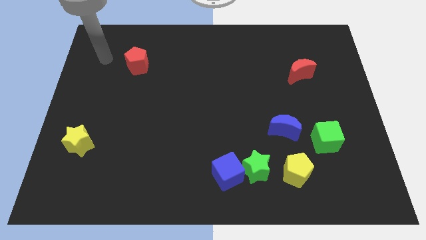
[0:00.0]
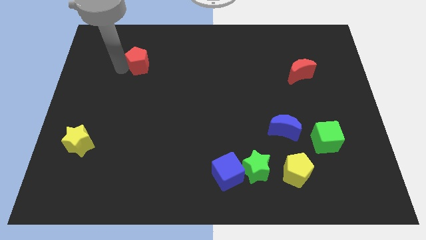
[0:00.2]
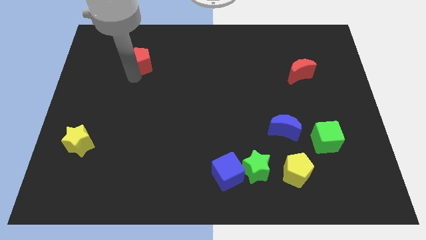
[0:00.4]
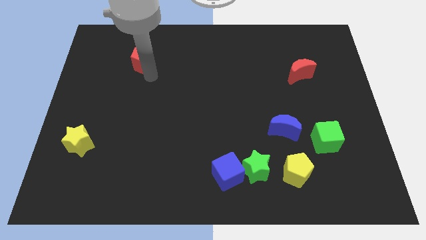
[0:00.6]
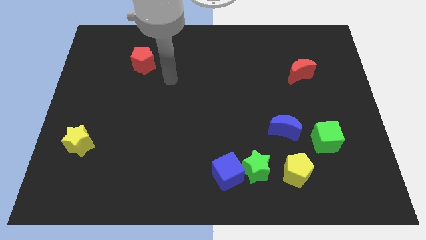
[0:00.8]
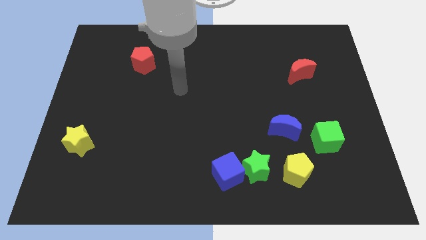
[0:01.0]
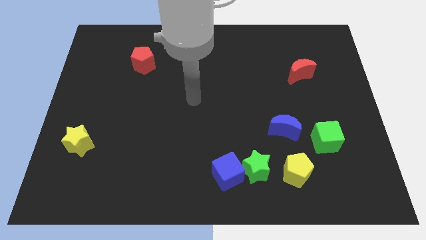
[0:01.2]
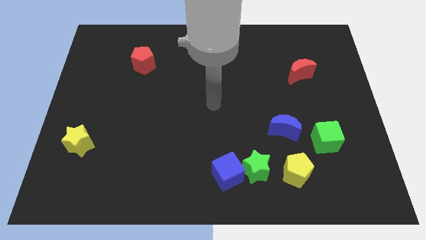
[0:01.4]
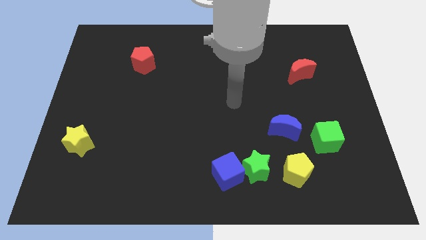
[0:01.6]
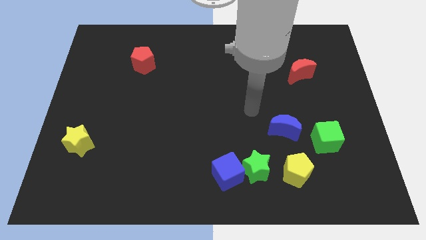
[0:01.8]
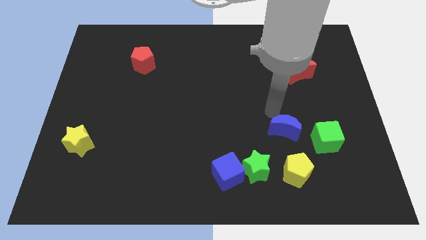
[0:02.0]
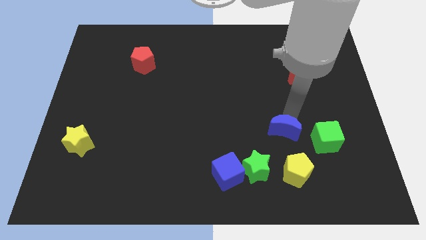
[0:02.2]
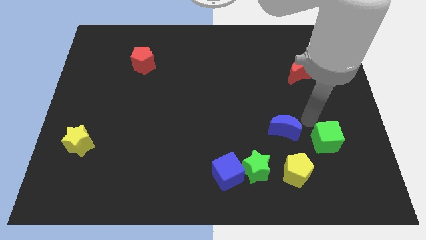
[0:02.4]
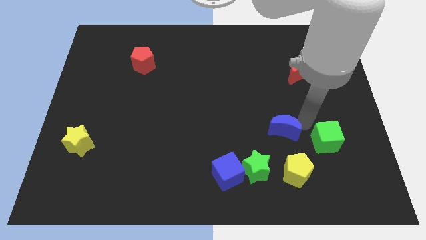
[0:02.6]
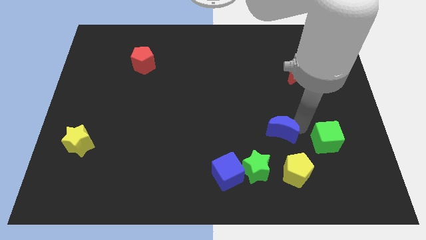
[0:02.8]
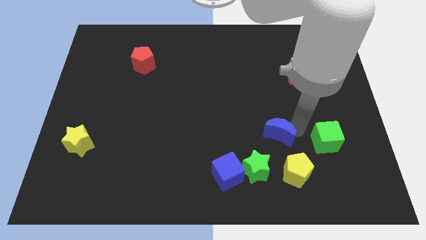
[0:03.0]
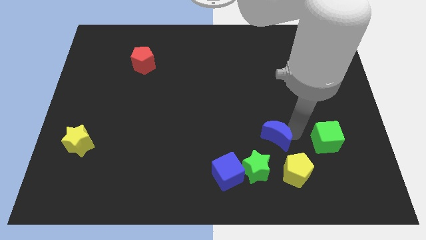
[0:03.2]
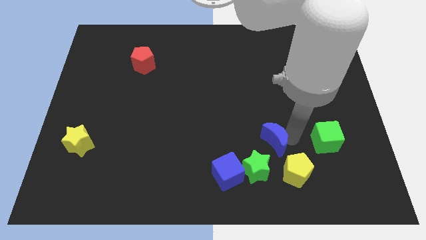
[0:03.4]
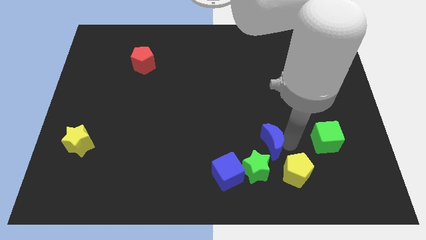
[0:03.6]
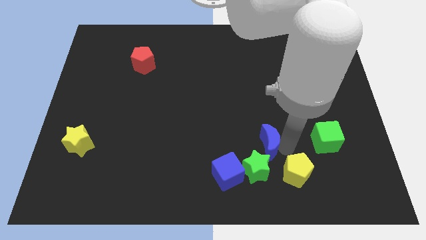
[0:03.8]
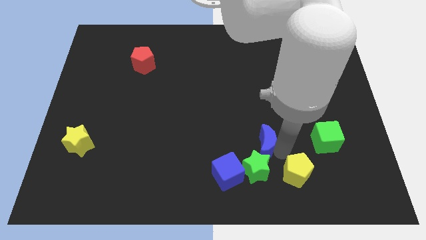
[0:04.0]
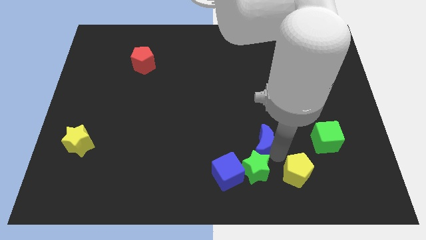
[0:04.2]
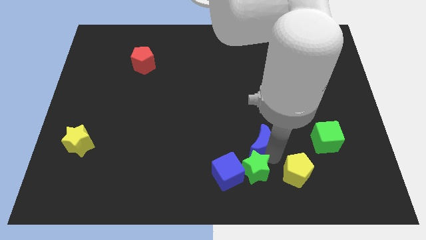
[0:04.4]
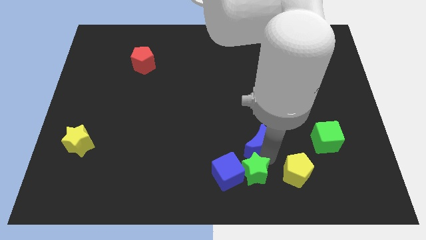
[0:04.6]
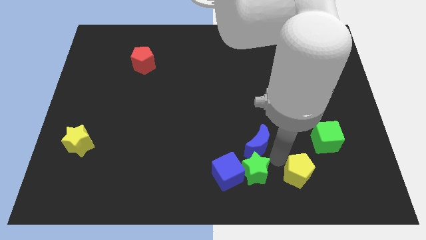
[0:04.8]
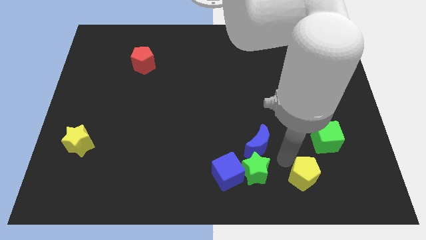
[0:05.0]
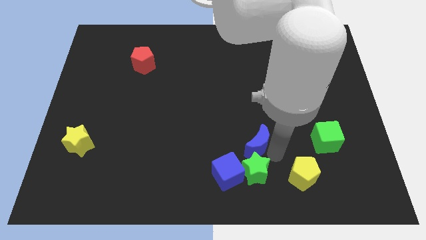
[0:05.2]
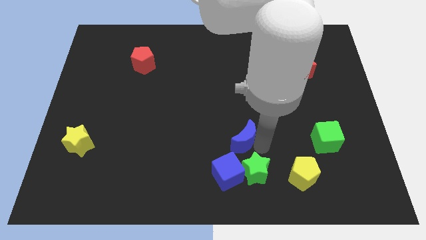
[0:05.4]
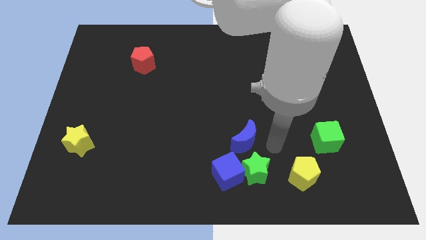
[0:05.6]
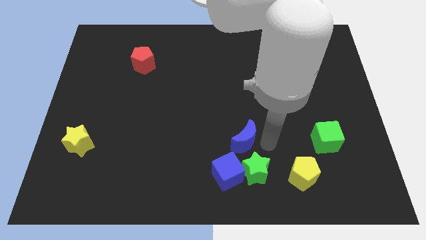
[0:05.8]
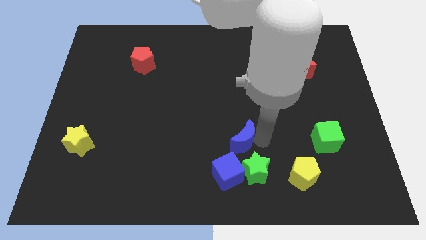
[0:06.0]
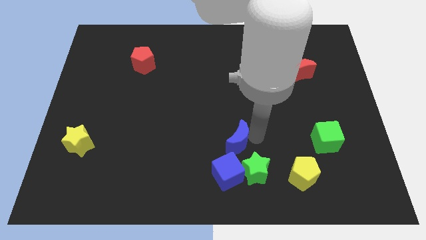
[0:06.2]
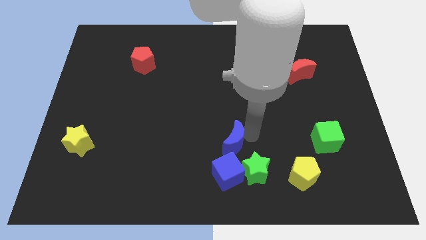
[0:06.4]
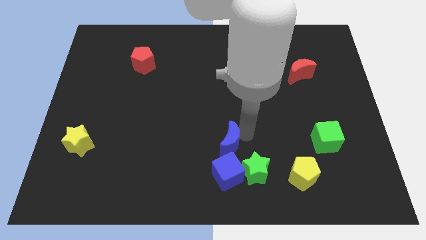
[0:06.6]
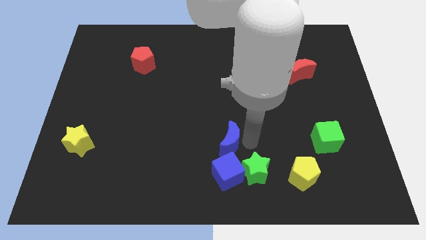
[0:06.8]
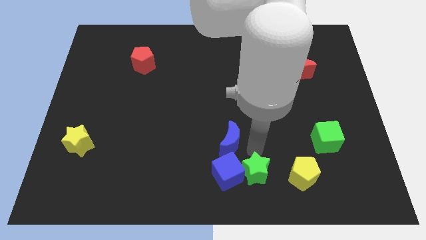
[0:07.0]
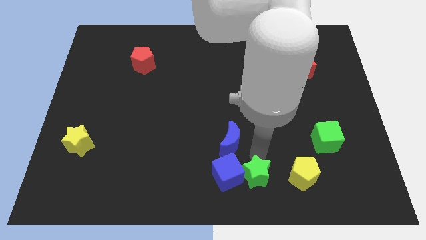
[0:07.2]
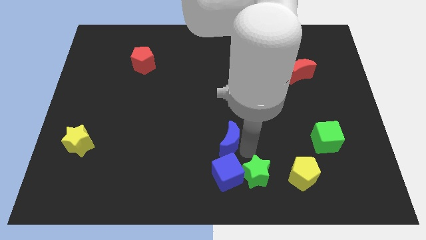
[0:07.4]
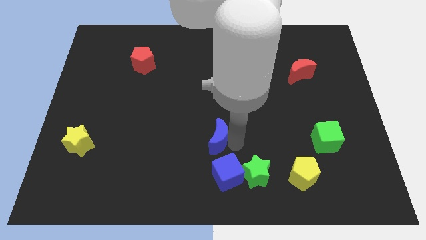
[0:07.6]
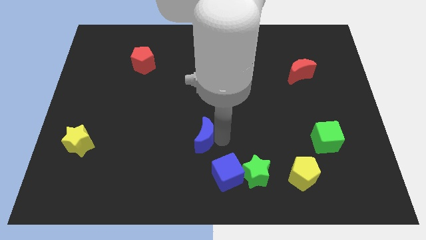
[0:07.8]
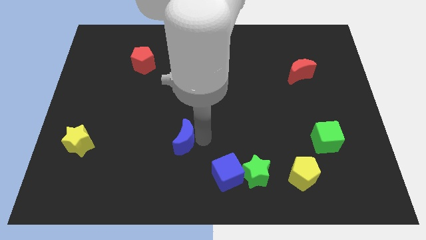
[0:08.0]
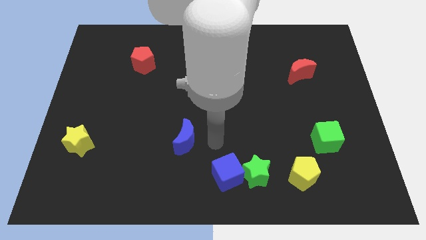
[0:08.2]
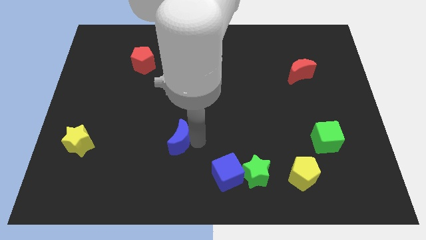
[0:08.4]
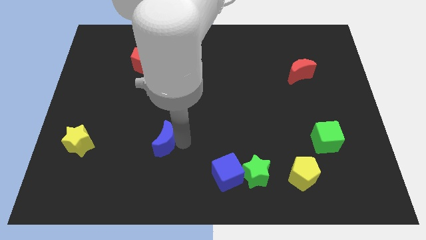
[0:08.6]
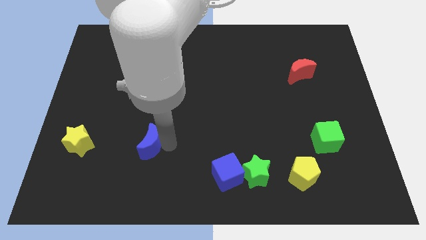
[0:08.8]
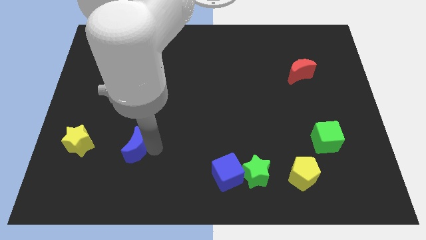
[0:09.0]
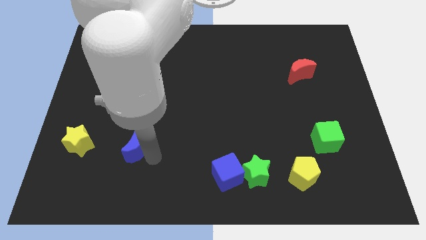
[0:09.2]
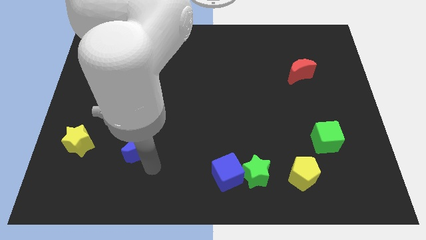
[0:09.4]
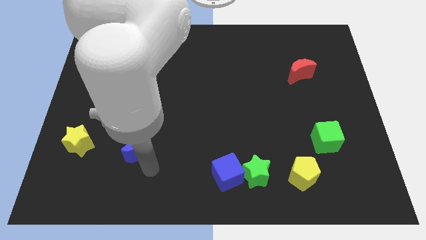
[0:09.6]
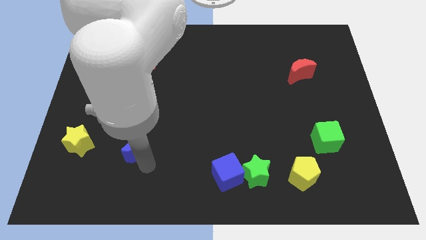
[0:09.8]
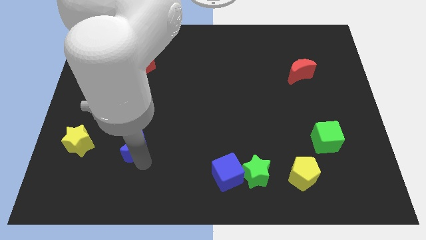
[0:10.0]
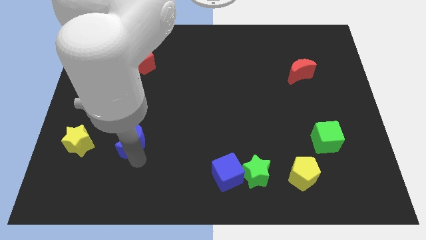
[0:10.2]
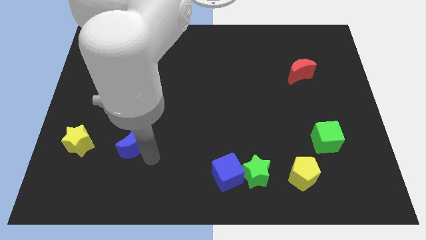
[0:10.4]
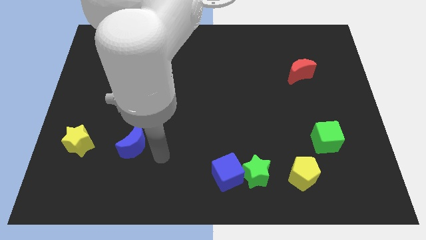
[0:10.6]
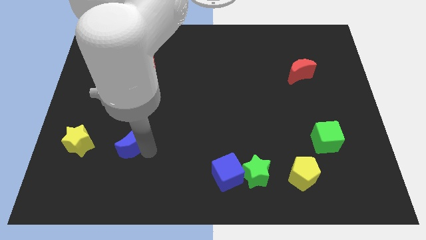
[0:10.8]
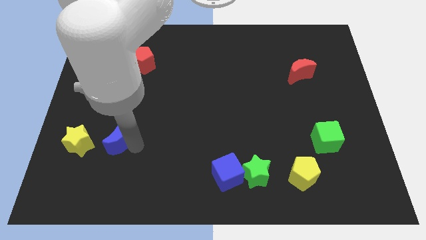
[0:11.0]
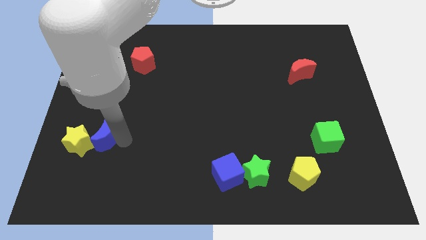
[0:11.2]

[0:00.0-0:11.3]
push the blue moon towards the yellow star

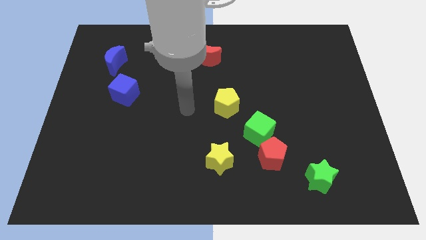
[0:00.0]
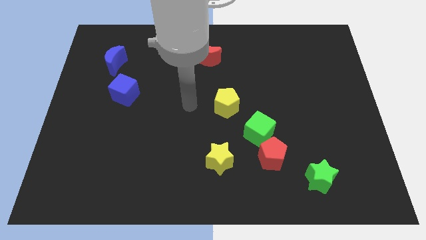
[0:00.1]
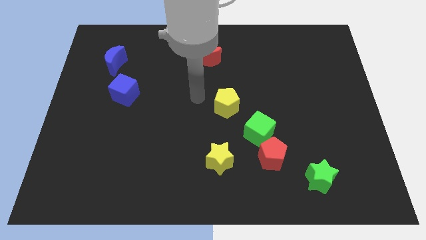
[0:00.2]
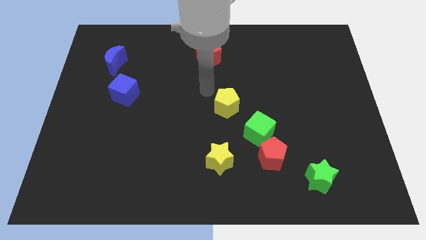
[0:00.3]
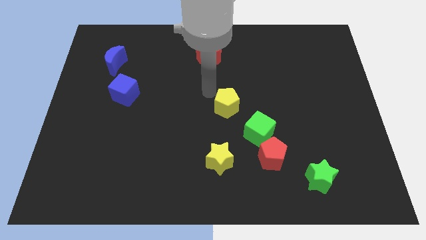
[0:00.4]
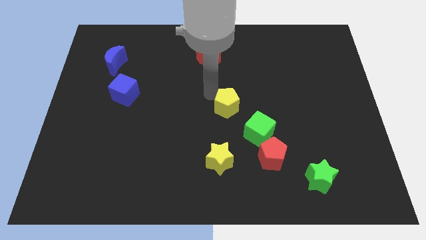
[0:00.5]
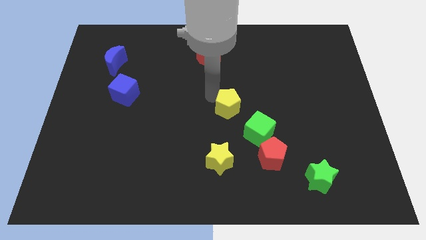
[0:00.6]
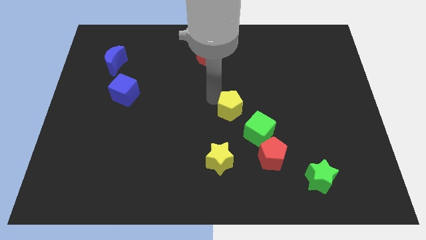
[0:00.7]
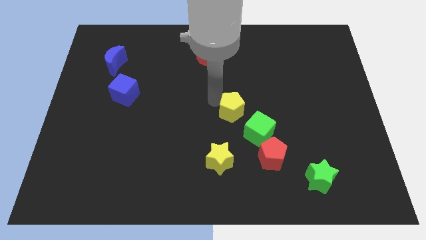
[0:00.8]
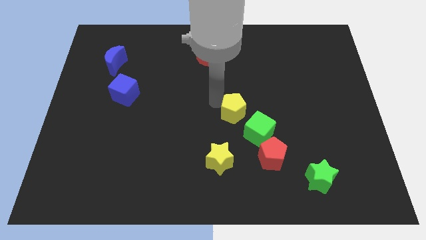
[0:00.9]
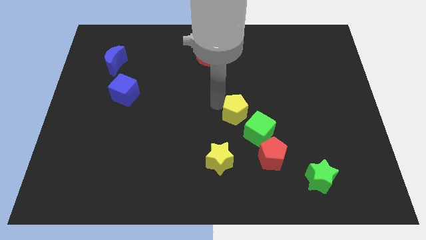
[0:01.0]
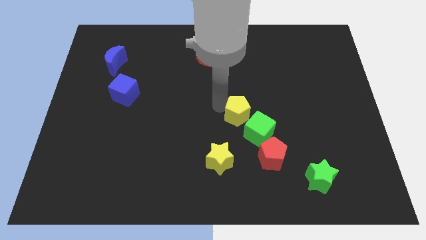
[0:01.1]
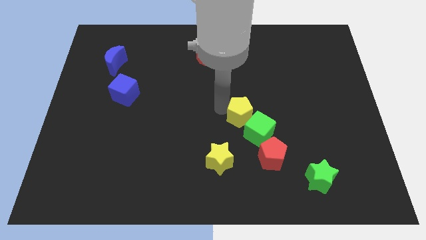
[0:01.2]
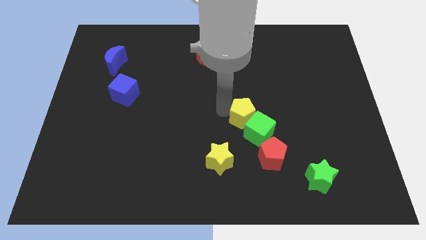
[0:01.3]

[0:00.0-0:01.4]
put the yellow pentagon to the green cube

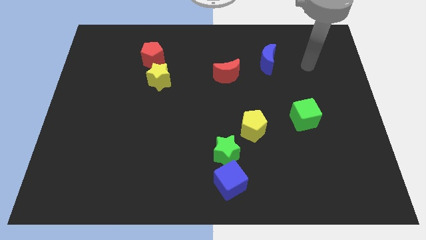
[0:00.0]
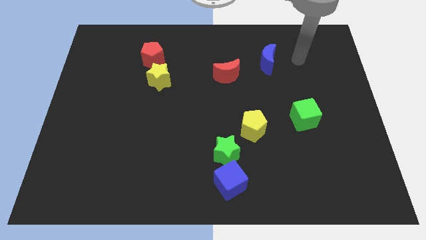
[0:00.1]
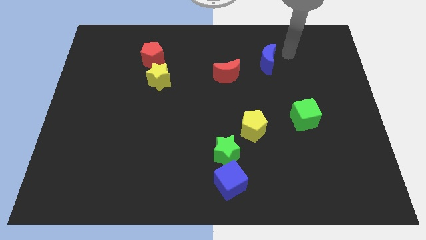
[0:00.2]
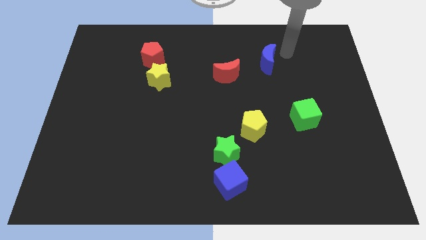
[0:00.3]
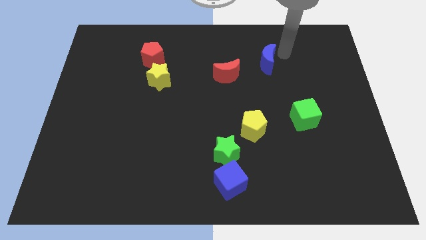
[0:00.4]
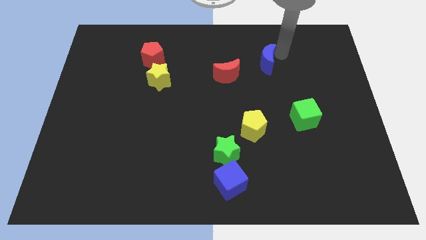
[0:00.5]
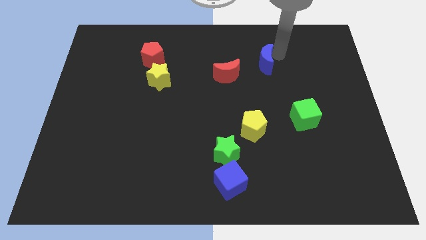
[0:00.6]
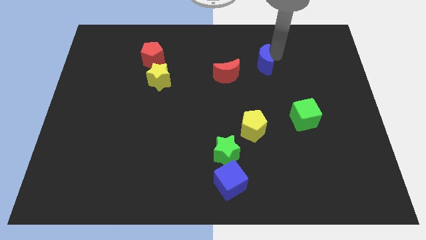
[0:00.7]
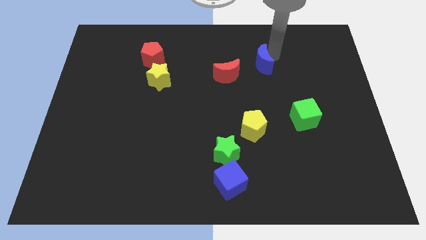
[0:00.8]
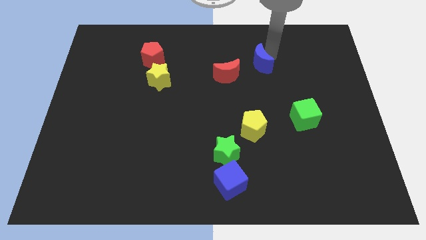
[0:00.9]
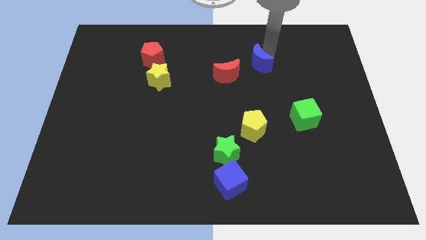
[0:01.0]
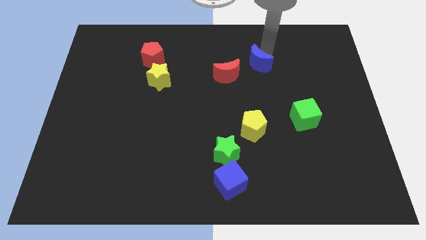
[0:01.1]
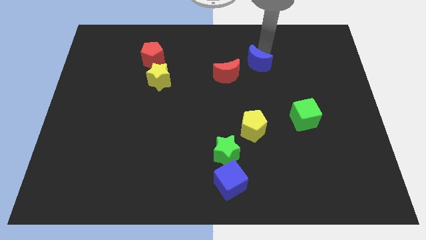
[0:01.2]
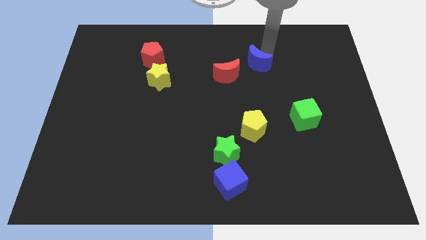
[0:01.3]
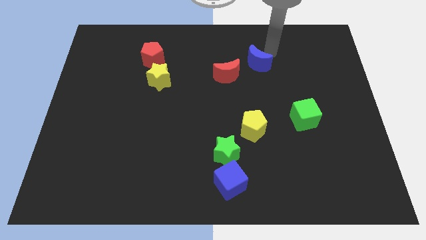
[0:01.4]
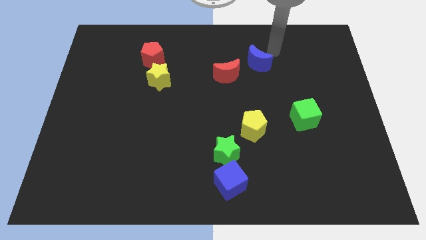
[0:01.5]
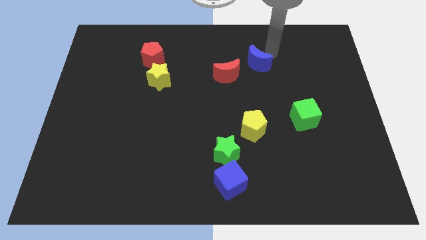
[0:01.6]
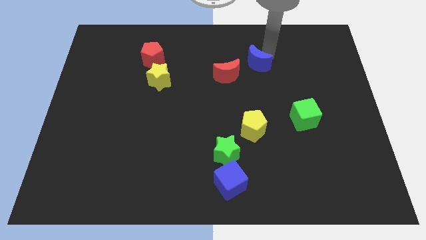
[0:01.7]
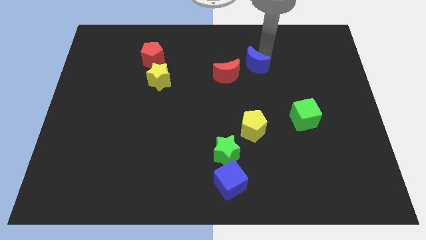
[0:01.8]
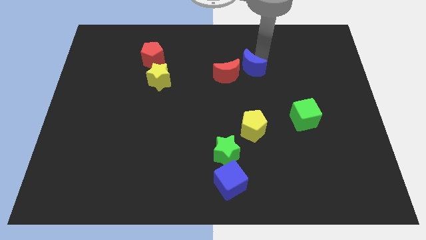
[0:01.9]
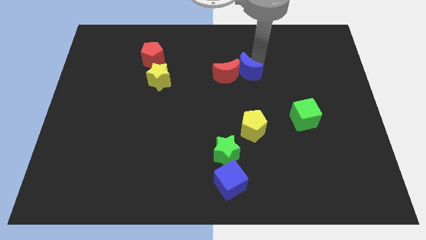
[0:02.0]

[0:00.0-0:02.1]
put the blue moon next to the red moon
